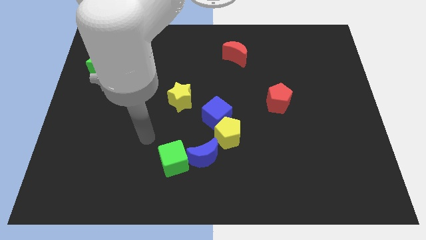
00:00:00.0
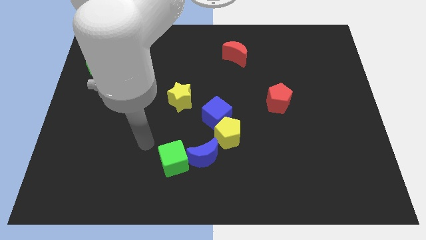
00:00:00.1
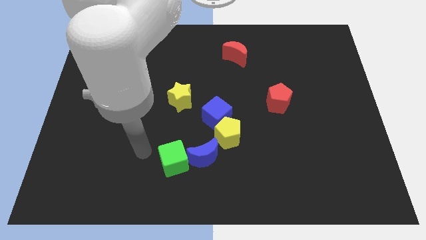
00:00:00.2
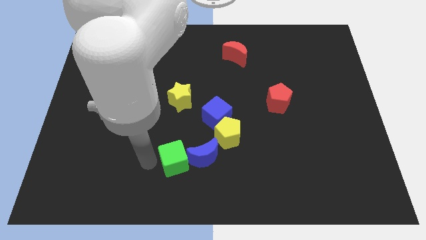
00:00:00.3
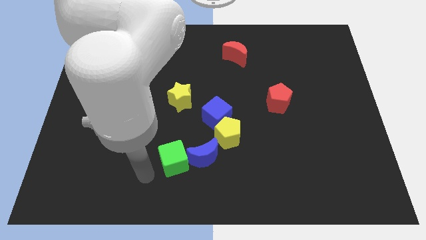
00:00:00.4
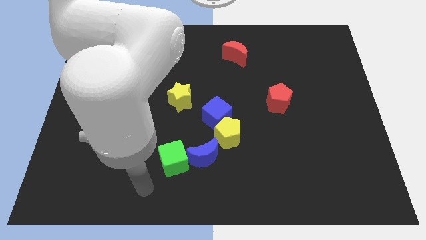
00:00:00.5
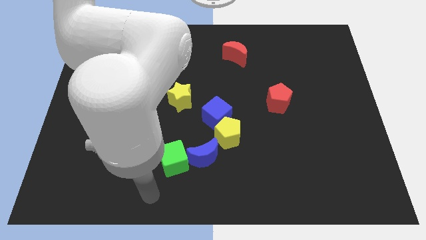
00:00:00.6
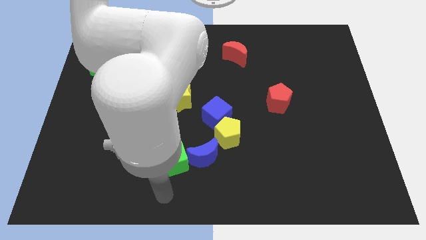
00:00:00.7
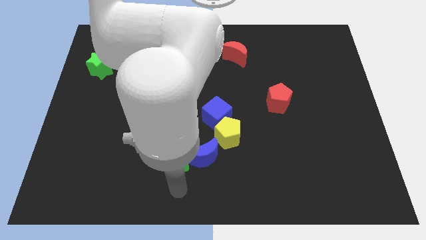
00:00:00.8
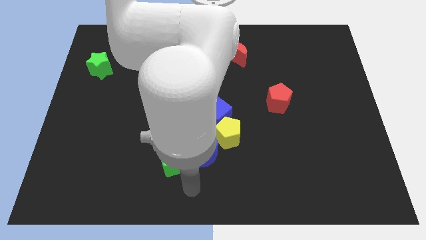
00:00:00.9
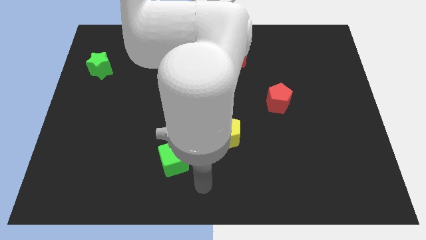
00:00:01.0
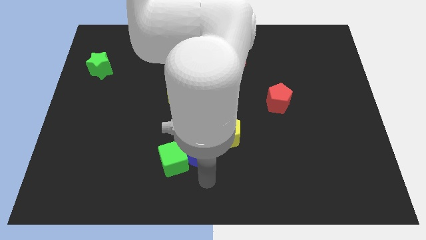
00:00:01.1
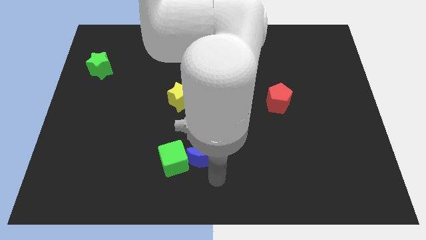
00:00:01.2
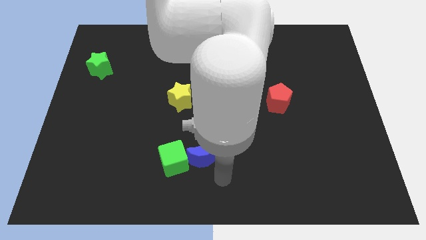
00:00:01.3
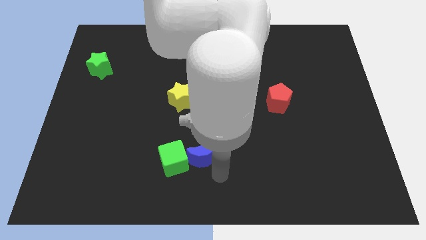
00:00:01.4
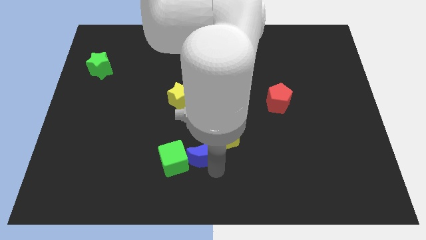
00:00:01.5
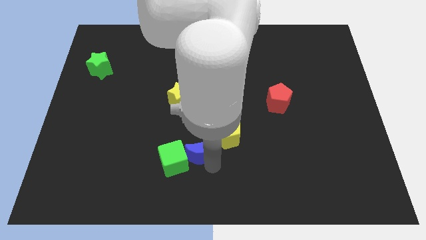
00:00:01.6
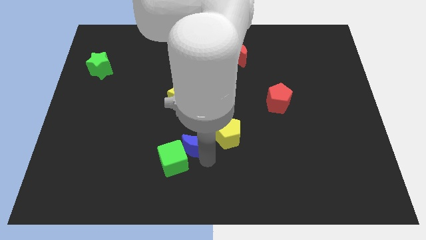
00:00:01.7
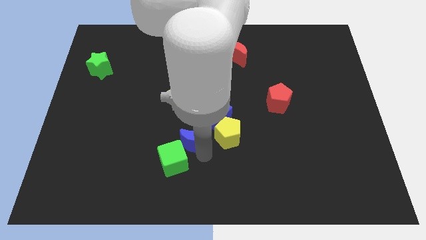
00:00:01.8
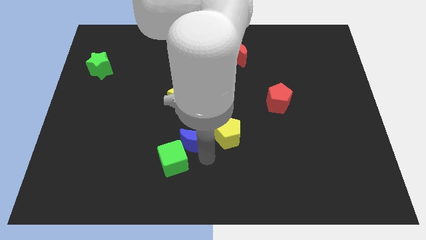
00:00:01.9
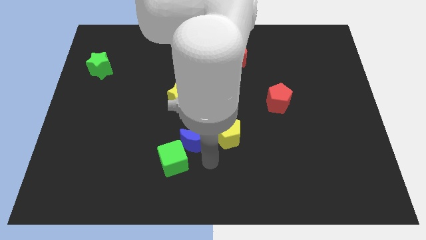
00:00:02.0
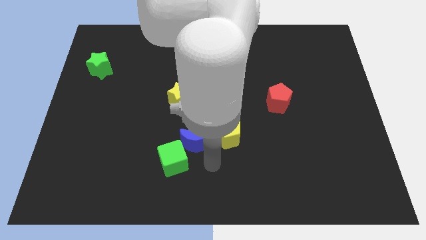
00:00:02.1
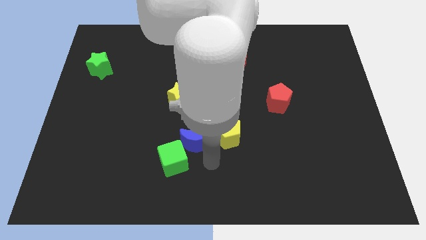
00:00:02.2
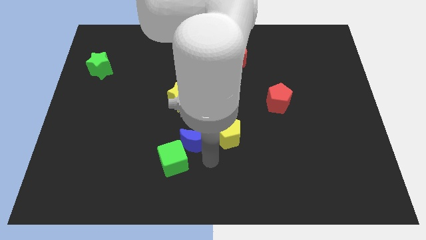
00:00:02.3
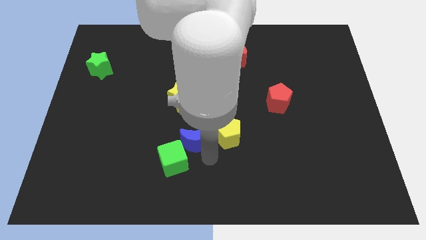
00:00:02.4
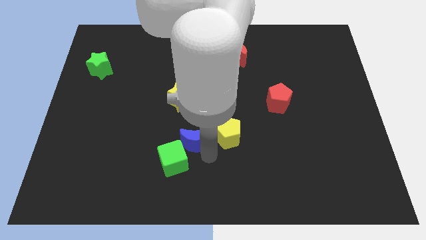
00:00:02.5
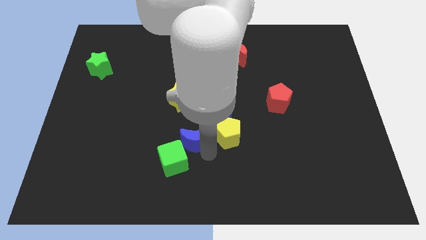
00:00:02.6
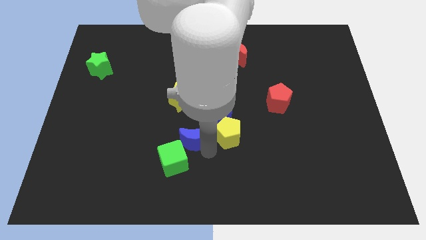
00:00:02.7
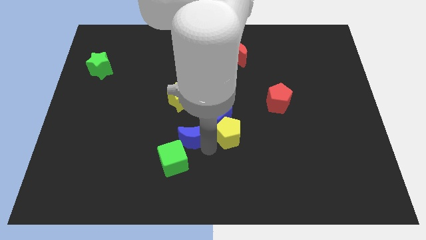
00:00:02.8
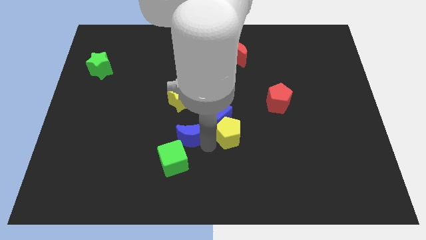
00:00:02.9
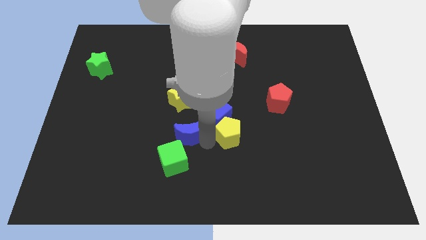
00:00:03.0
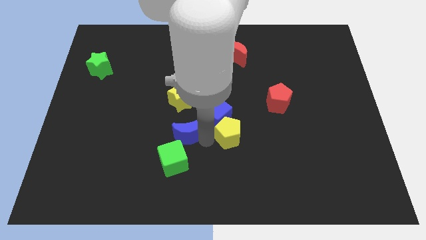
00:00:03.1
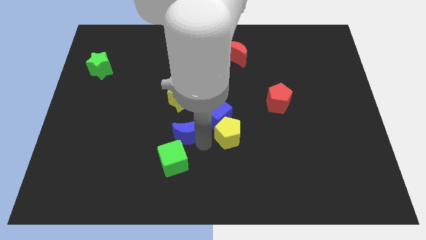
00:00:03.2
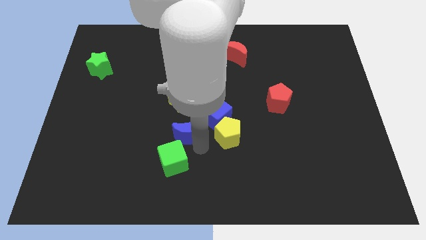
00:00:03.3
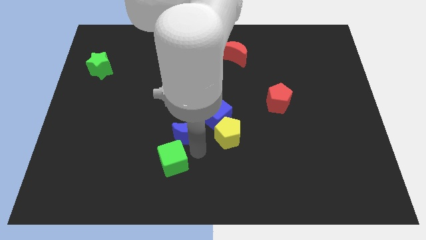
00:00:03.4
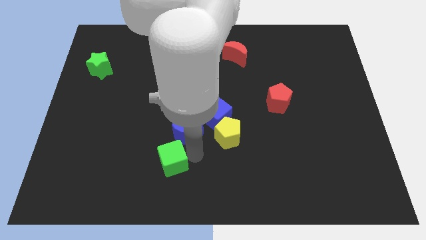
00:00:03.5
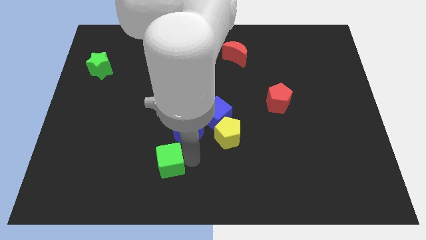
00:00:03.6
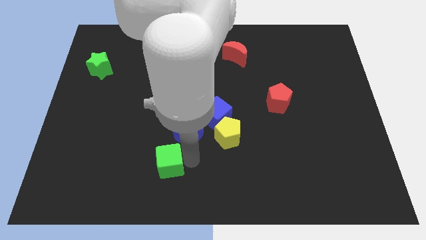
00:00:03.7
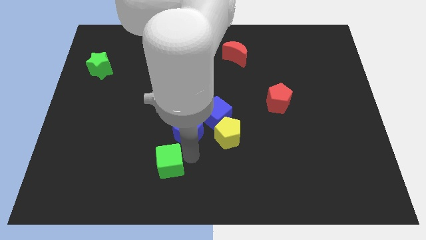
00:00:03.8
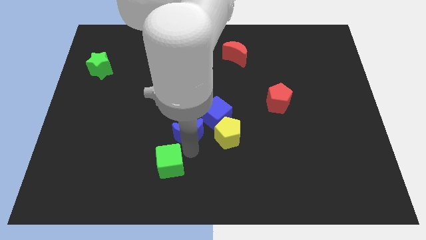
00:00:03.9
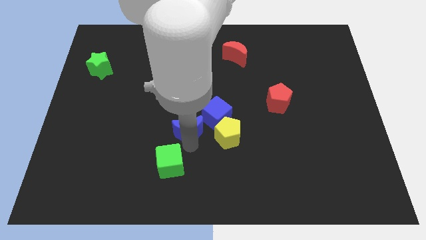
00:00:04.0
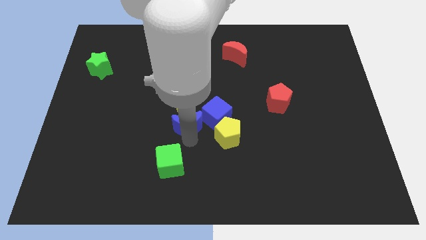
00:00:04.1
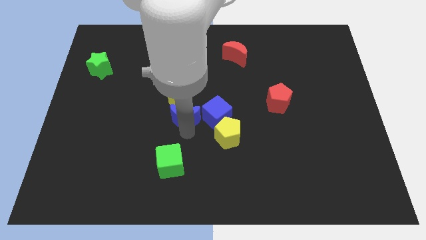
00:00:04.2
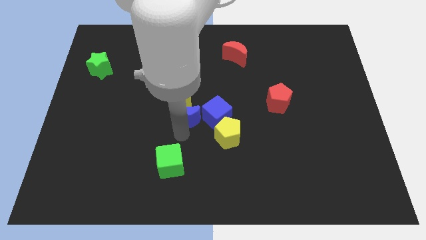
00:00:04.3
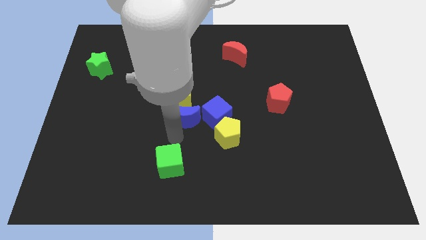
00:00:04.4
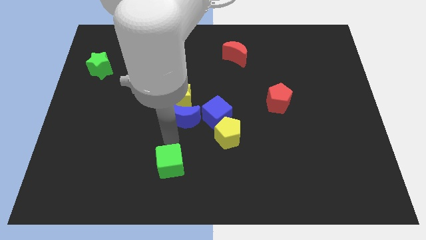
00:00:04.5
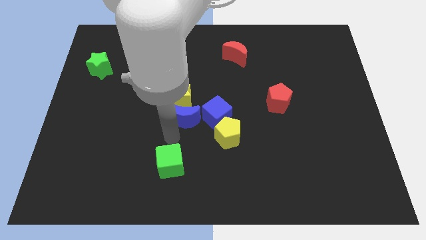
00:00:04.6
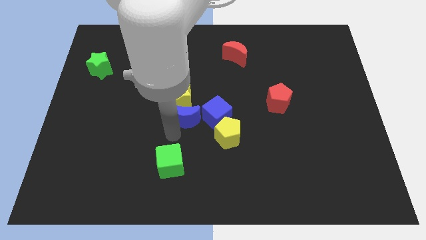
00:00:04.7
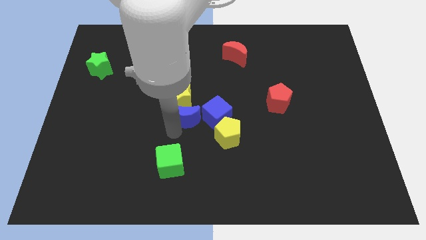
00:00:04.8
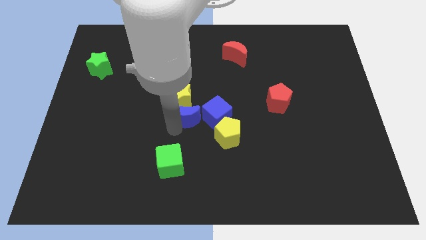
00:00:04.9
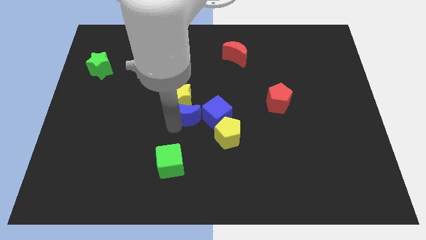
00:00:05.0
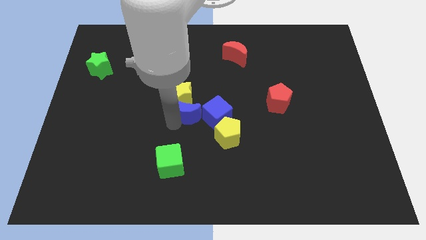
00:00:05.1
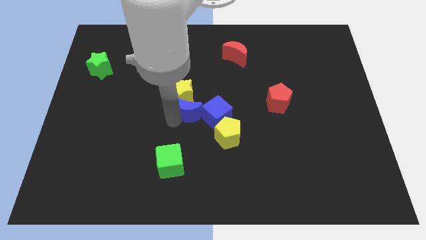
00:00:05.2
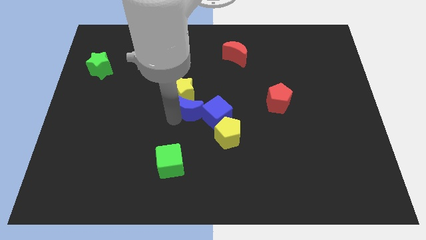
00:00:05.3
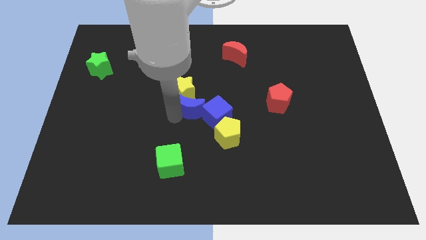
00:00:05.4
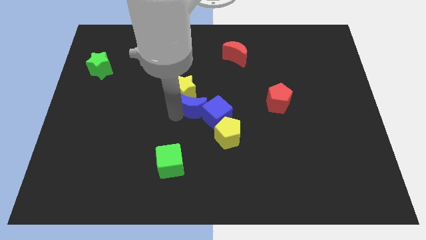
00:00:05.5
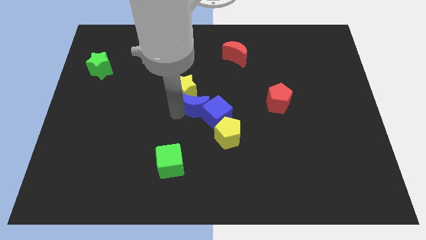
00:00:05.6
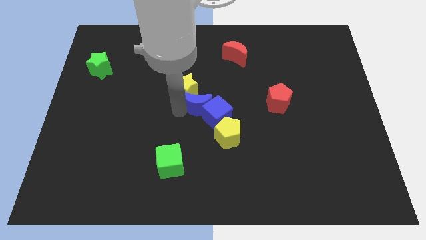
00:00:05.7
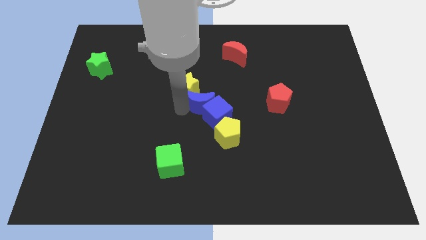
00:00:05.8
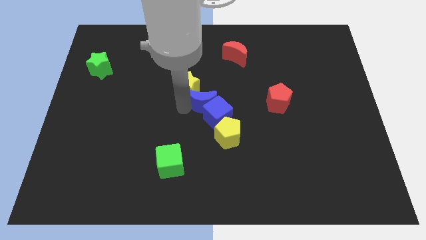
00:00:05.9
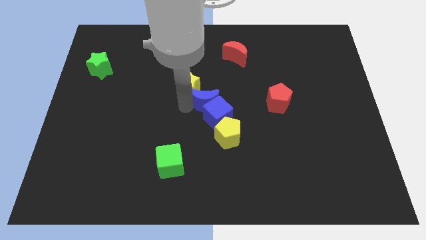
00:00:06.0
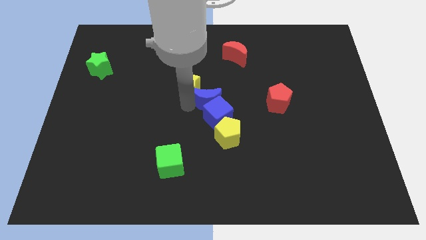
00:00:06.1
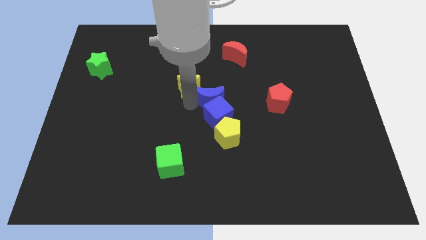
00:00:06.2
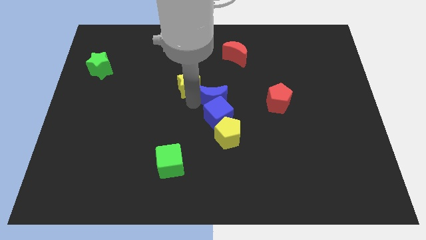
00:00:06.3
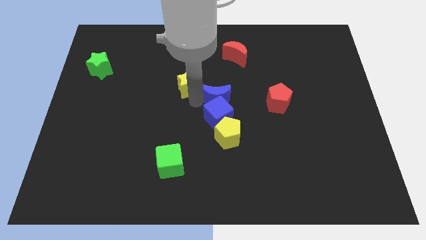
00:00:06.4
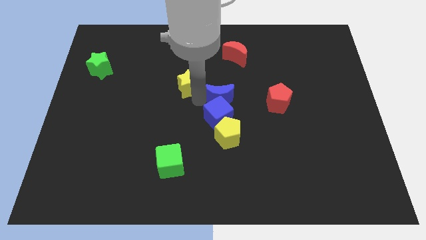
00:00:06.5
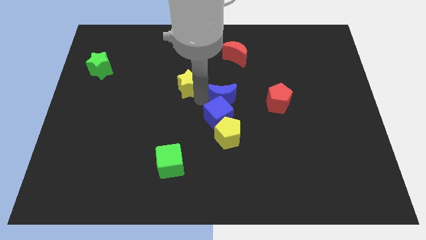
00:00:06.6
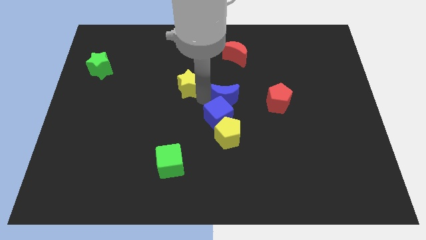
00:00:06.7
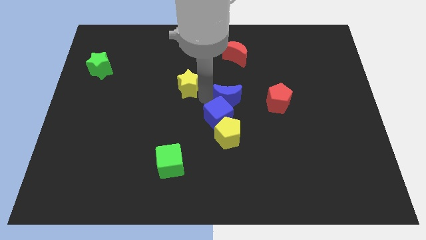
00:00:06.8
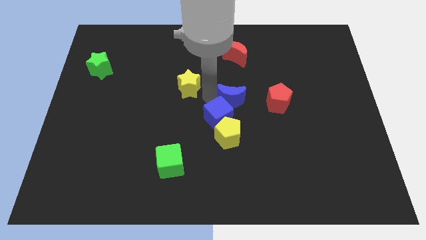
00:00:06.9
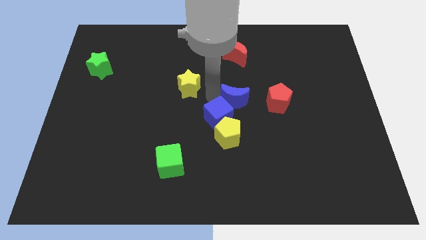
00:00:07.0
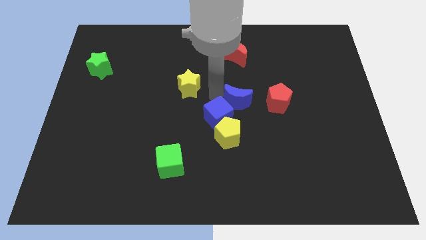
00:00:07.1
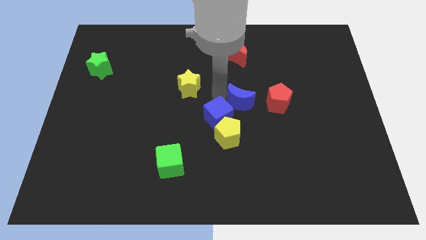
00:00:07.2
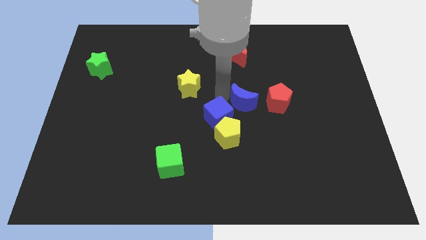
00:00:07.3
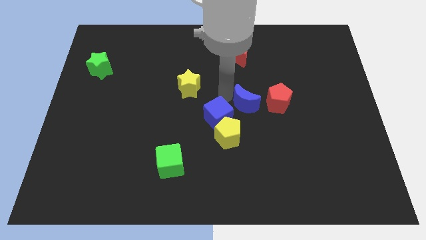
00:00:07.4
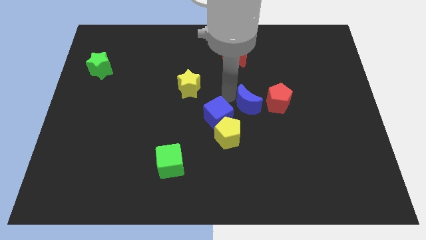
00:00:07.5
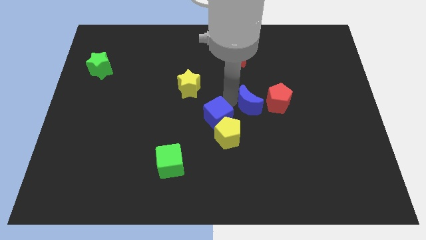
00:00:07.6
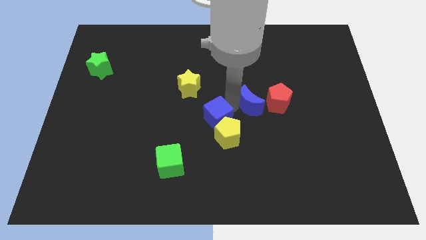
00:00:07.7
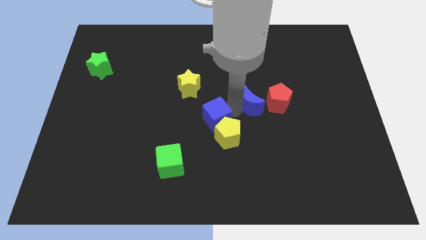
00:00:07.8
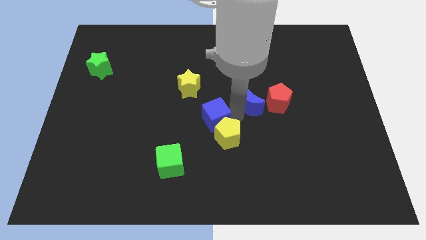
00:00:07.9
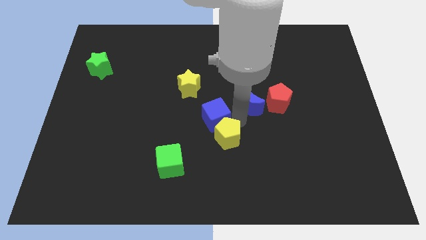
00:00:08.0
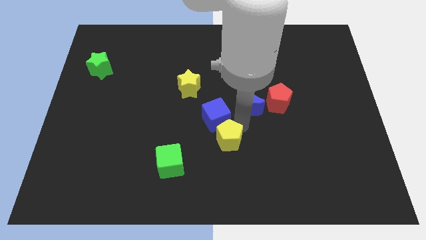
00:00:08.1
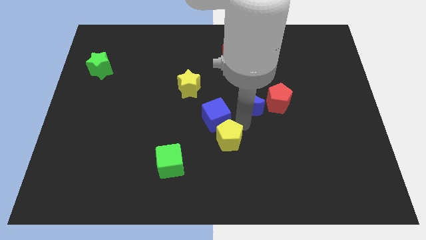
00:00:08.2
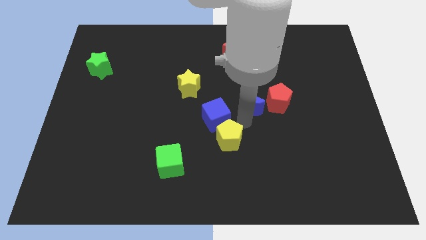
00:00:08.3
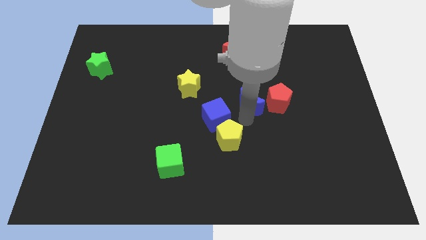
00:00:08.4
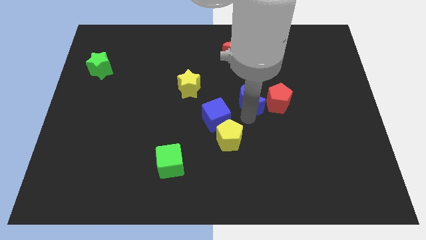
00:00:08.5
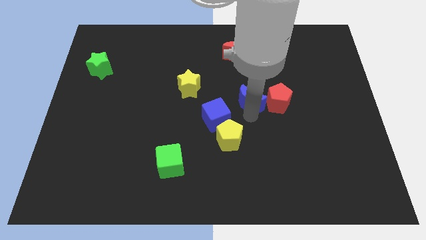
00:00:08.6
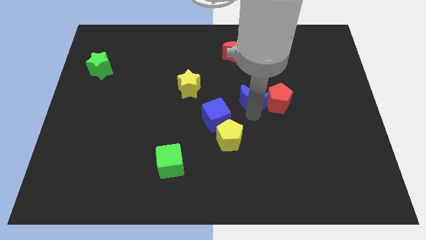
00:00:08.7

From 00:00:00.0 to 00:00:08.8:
slide the blue moon diagonally up and to the left of the red pentagon
